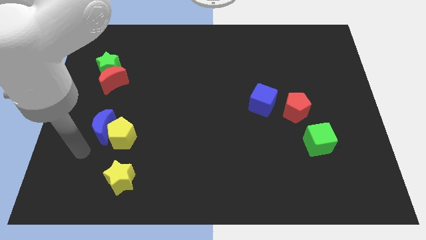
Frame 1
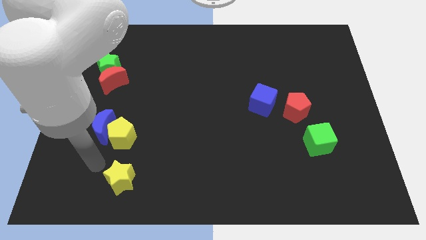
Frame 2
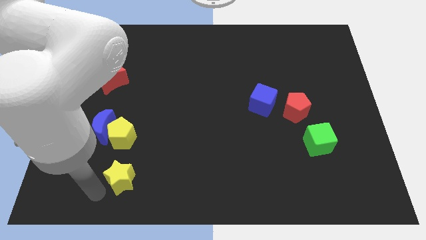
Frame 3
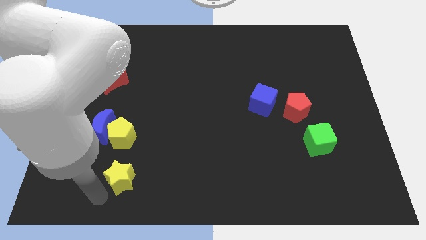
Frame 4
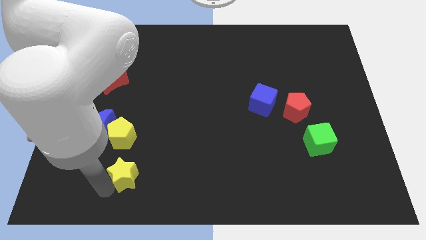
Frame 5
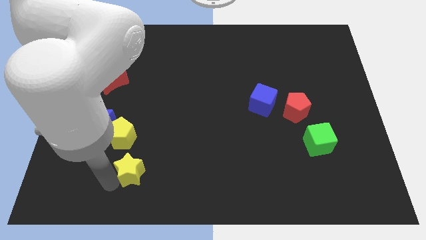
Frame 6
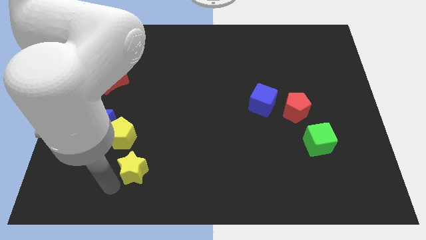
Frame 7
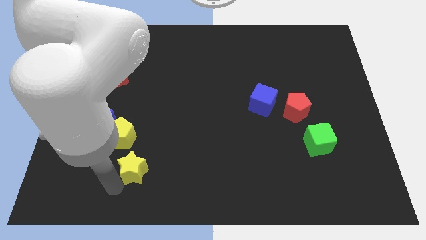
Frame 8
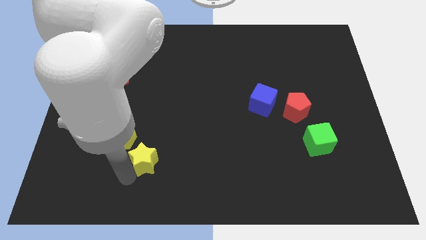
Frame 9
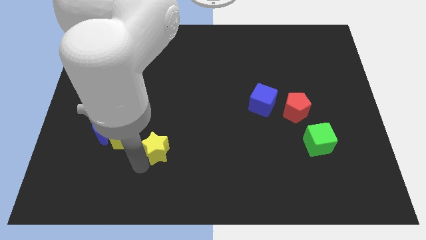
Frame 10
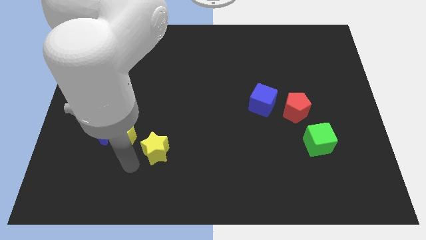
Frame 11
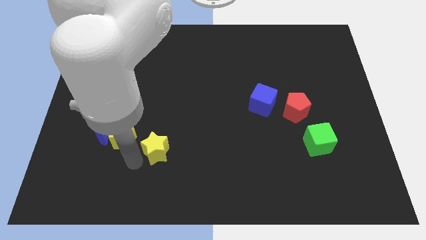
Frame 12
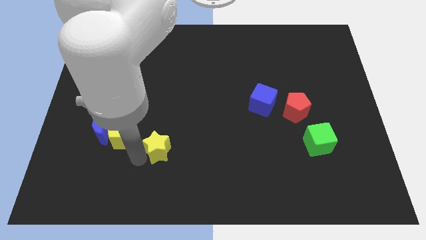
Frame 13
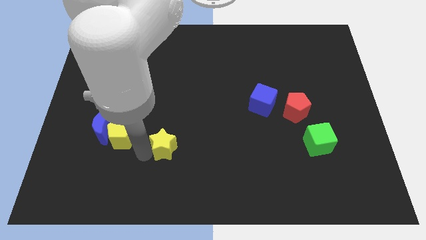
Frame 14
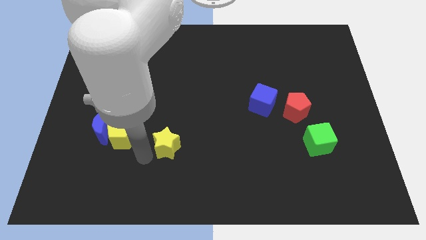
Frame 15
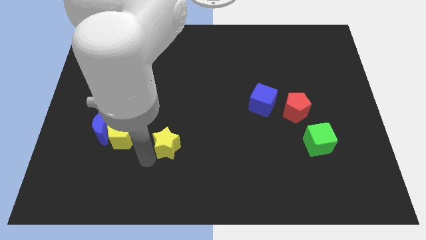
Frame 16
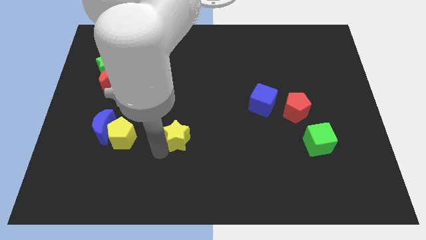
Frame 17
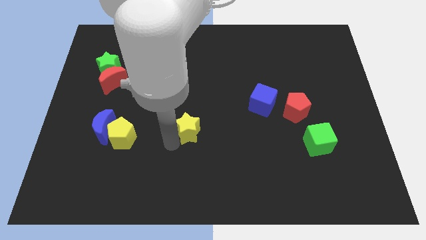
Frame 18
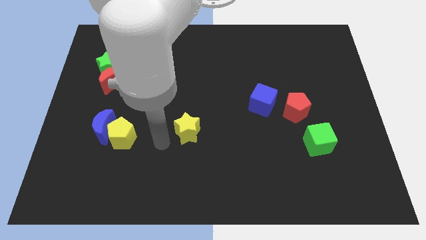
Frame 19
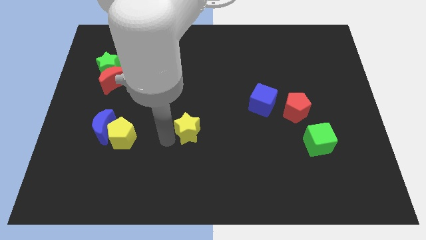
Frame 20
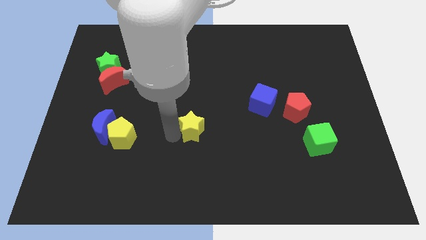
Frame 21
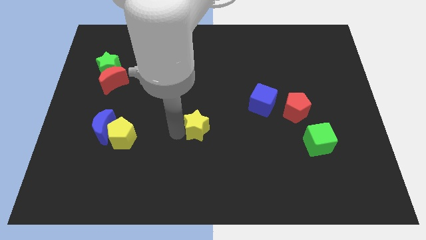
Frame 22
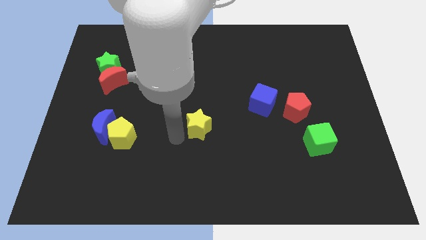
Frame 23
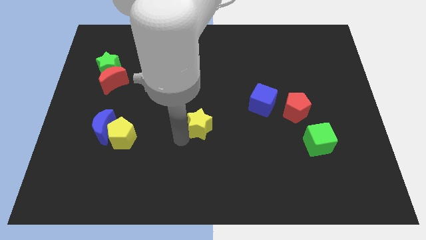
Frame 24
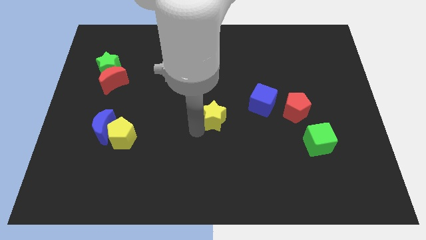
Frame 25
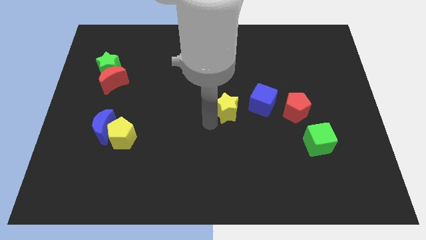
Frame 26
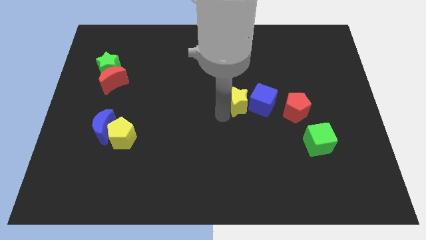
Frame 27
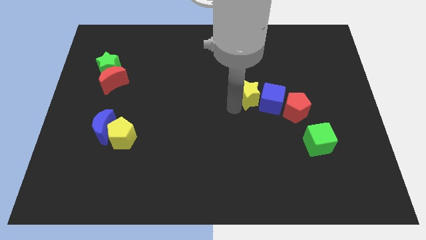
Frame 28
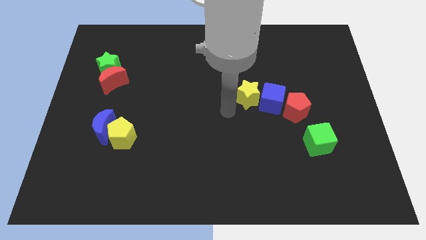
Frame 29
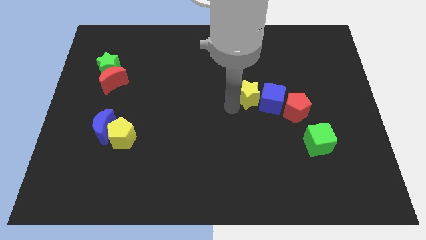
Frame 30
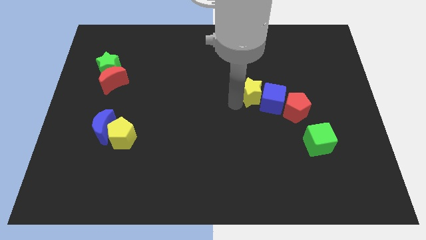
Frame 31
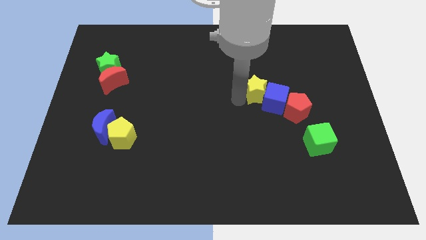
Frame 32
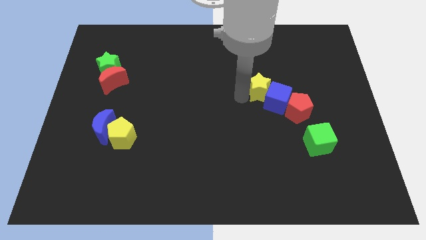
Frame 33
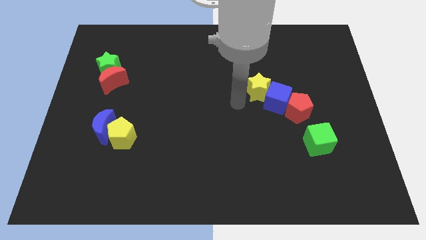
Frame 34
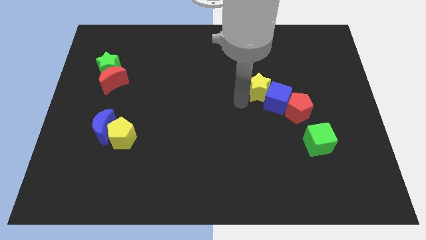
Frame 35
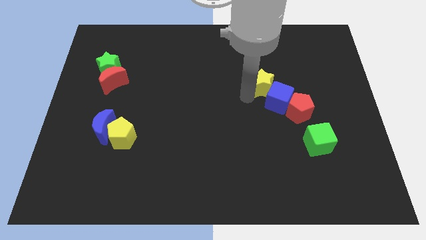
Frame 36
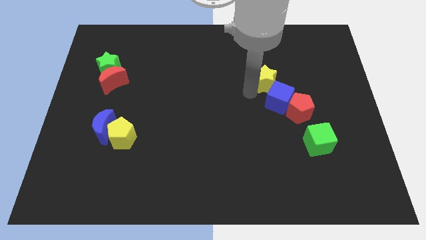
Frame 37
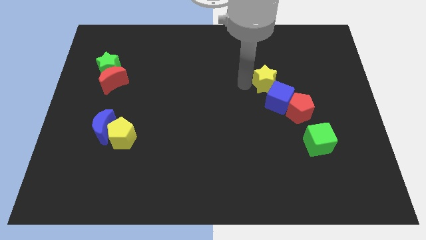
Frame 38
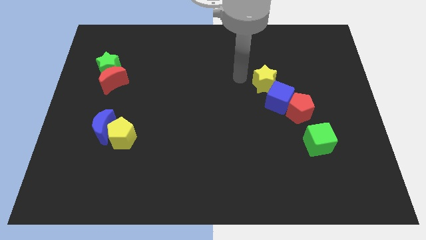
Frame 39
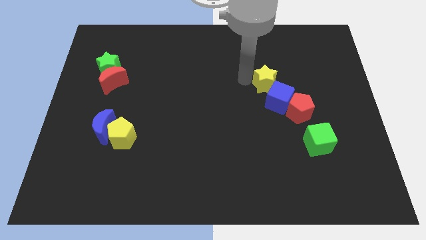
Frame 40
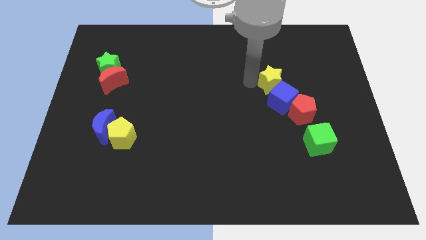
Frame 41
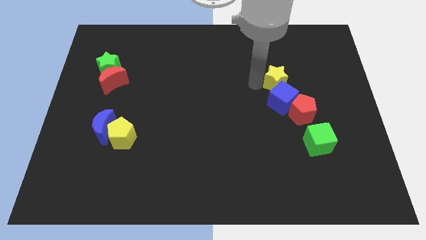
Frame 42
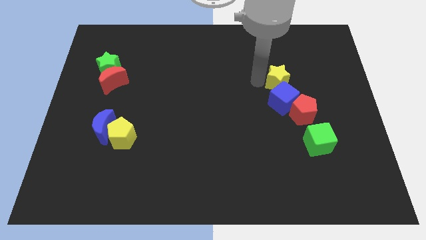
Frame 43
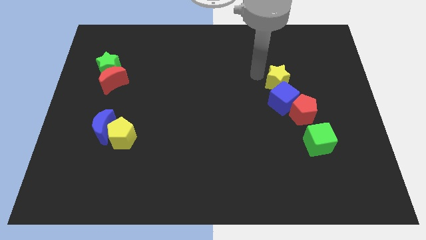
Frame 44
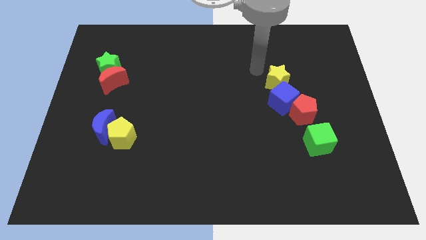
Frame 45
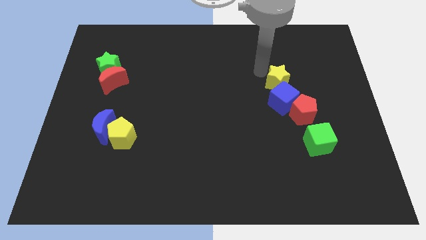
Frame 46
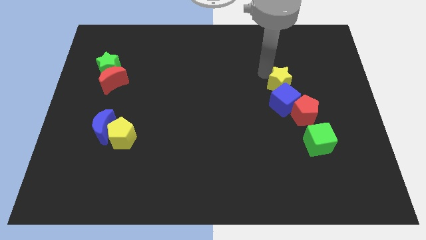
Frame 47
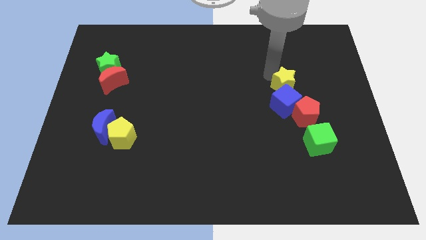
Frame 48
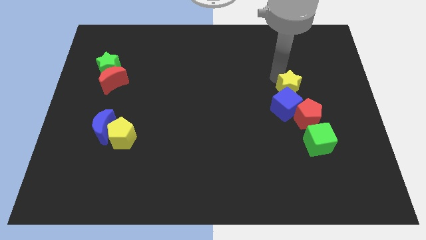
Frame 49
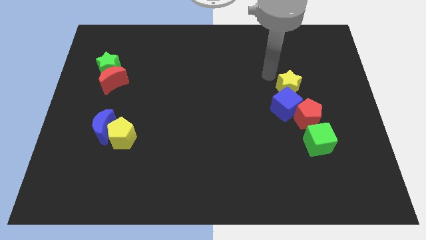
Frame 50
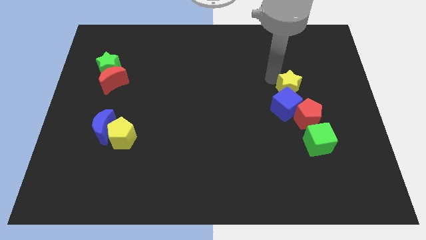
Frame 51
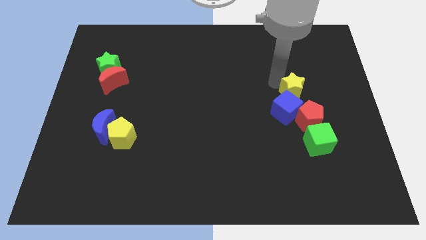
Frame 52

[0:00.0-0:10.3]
push the yellow star to the top of the green cube

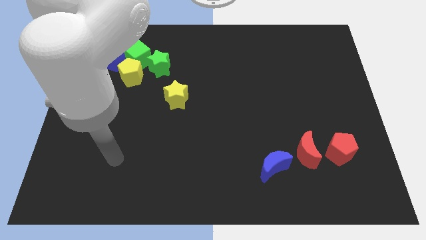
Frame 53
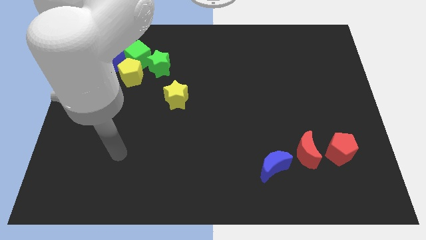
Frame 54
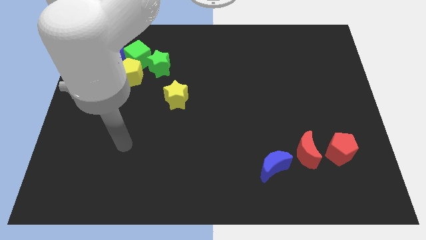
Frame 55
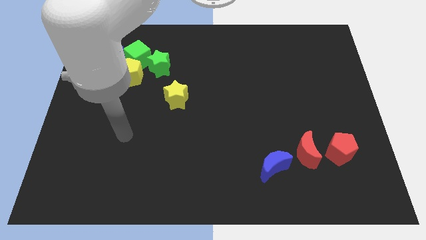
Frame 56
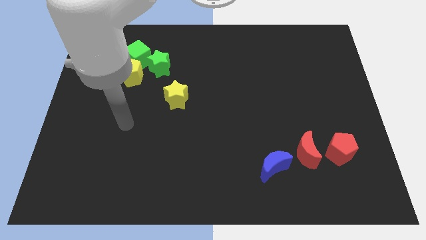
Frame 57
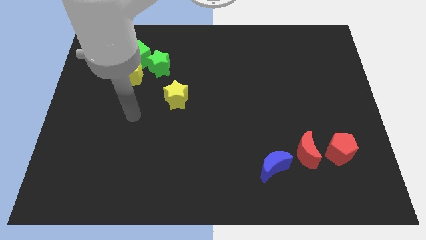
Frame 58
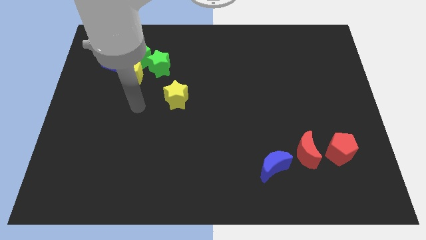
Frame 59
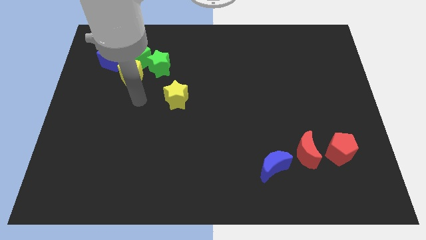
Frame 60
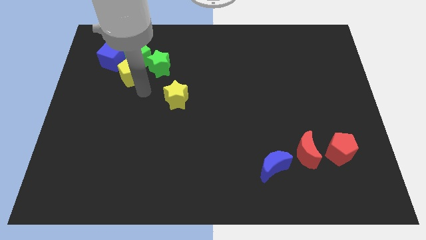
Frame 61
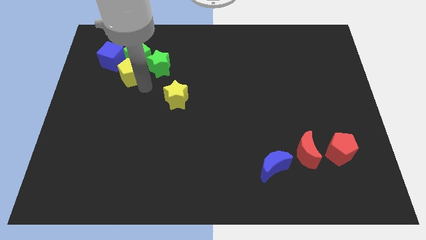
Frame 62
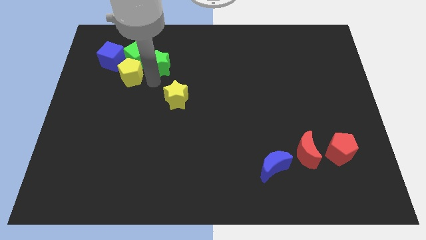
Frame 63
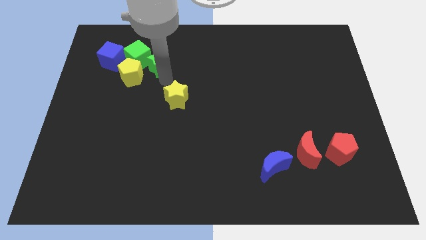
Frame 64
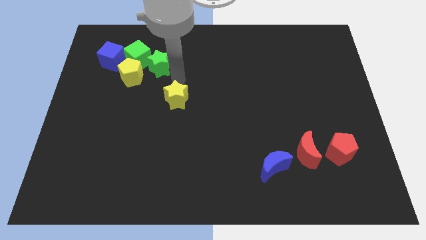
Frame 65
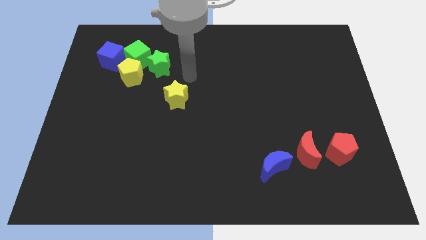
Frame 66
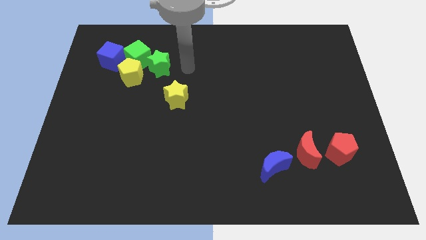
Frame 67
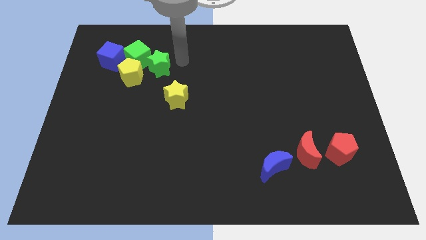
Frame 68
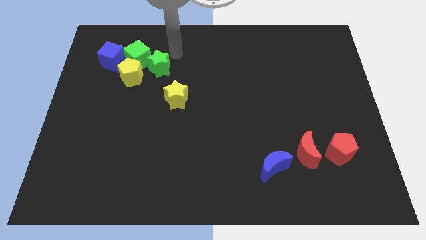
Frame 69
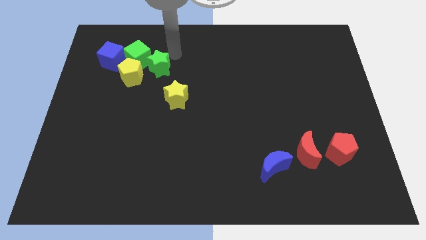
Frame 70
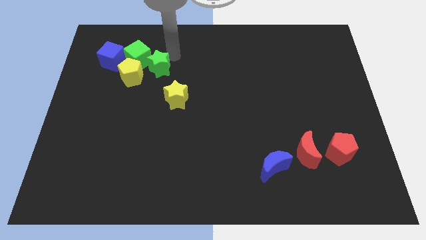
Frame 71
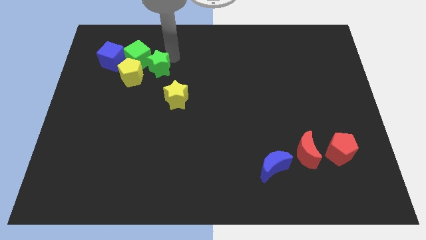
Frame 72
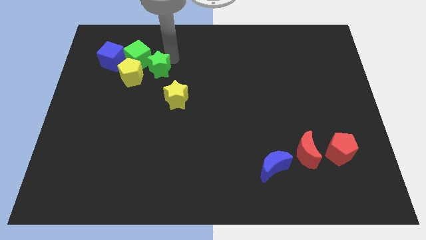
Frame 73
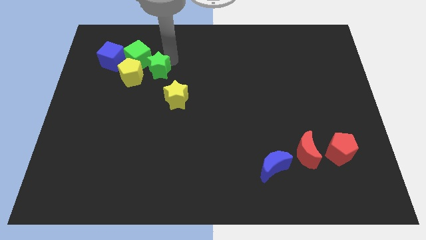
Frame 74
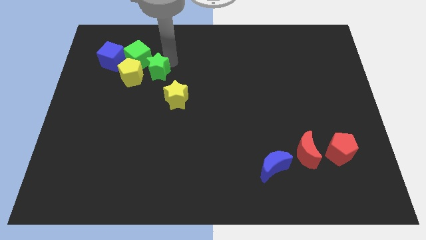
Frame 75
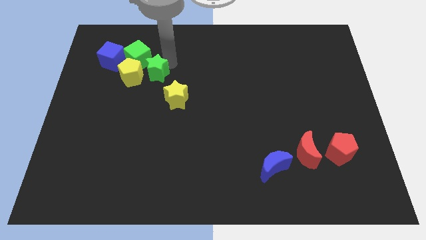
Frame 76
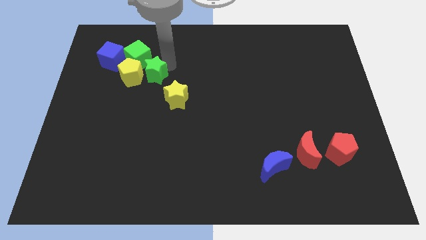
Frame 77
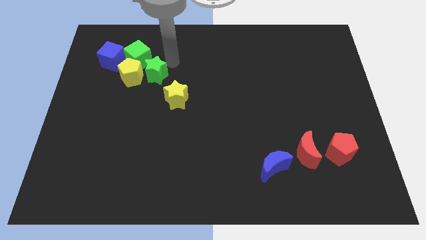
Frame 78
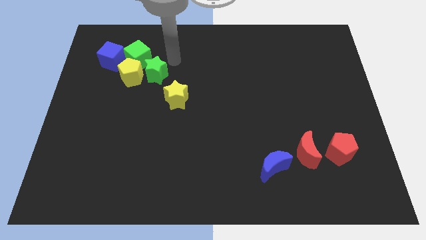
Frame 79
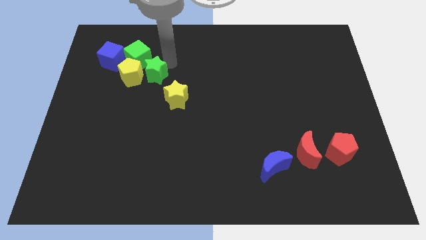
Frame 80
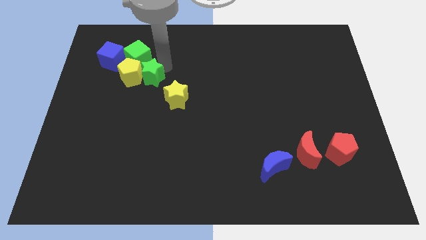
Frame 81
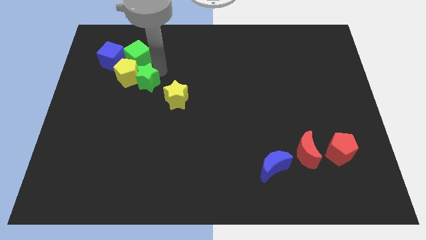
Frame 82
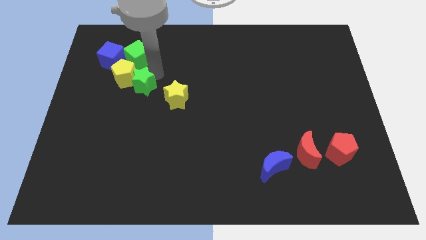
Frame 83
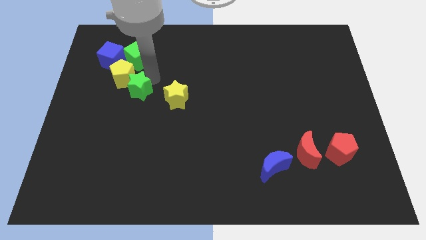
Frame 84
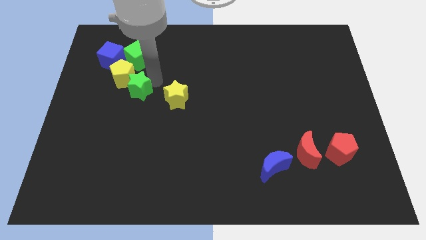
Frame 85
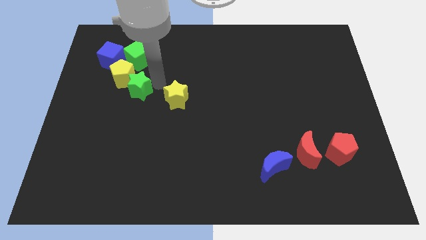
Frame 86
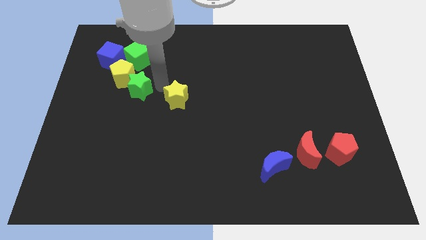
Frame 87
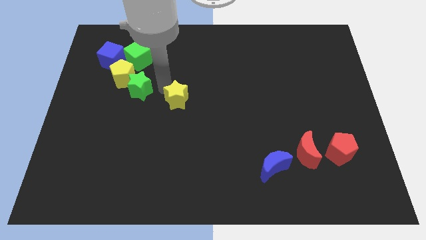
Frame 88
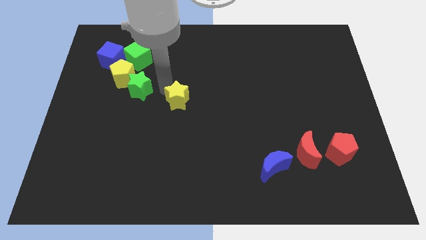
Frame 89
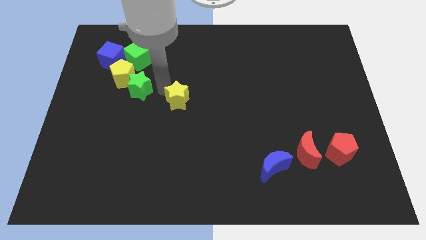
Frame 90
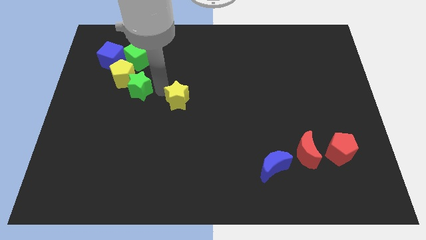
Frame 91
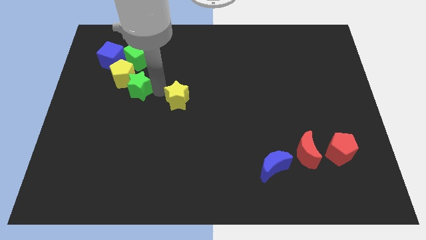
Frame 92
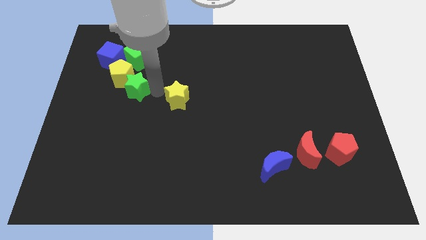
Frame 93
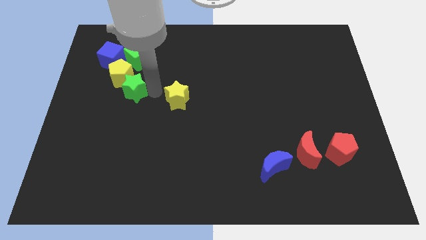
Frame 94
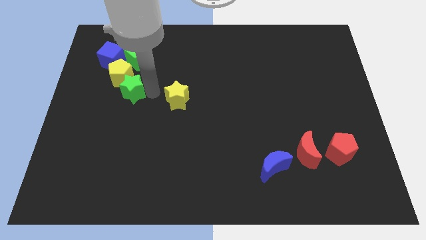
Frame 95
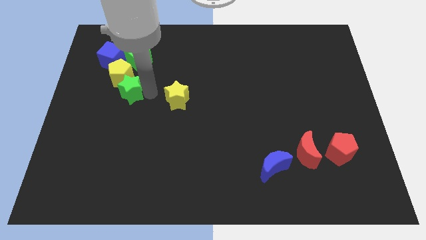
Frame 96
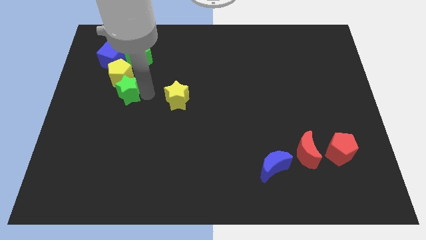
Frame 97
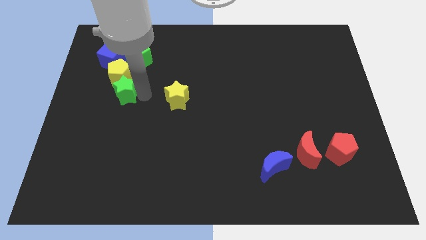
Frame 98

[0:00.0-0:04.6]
move the green star below the blue cube
